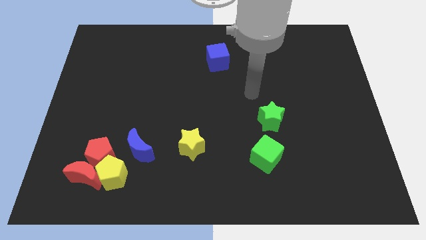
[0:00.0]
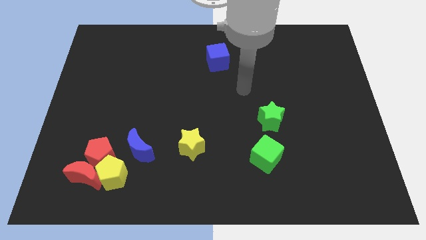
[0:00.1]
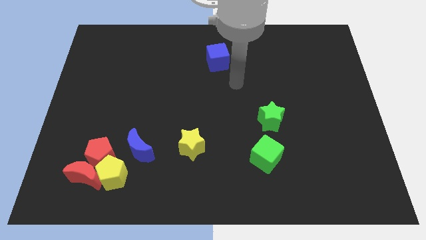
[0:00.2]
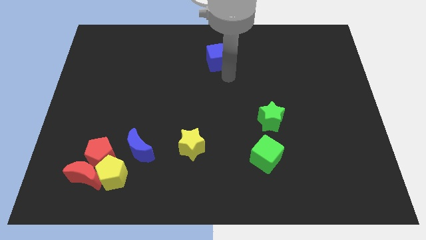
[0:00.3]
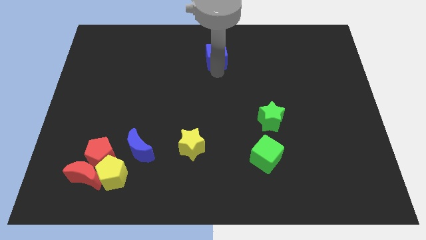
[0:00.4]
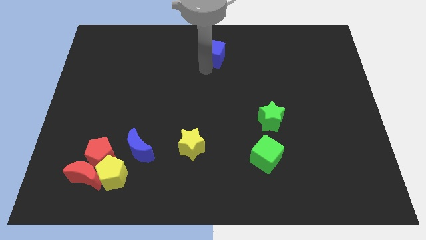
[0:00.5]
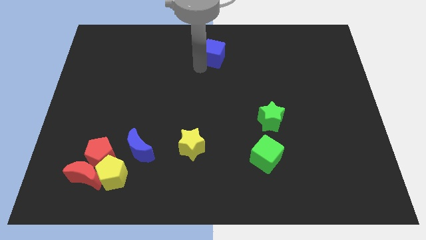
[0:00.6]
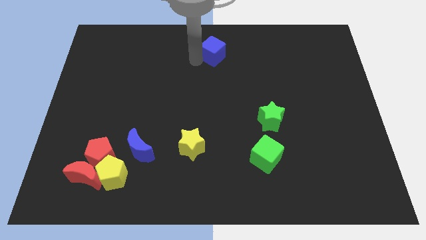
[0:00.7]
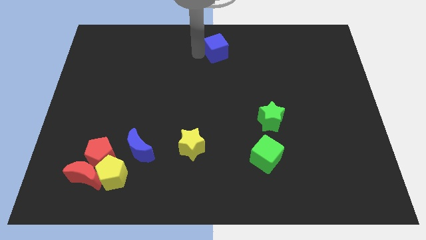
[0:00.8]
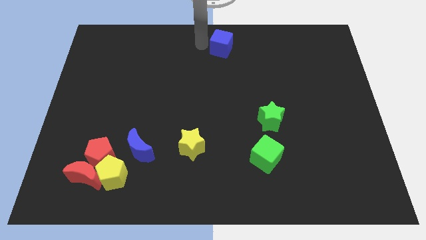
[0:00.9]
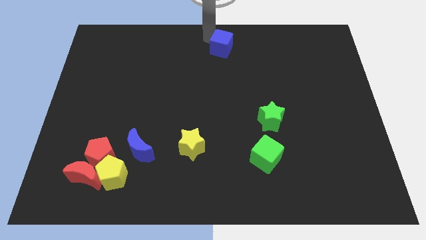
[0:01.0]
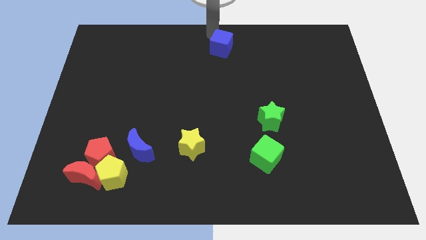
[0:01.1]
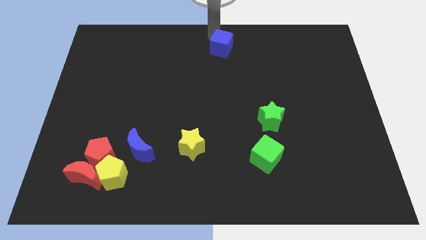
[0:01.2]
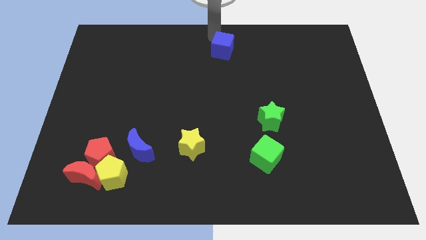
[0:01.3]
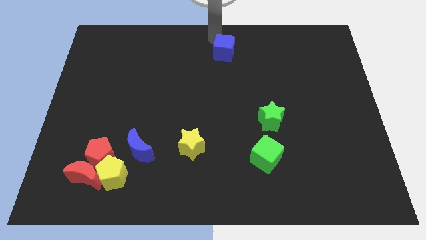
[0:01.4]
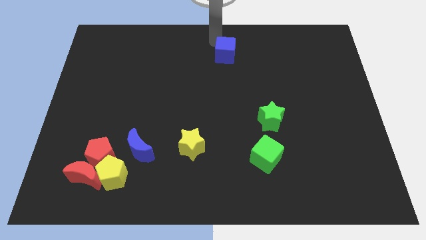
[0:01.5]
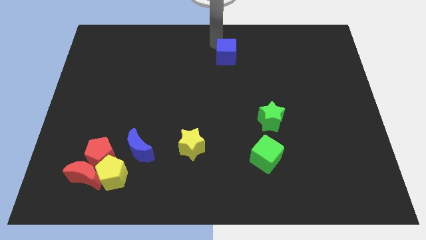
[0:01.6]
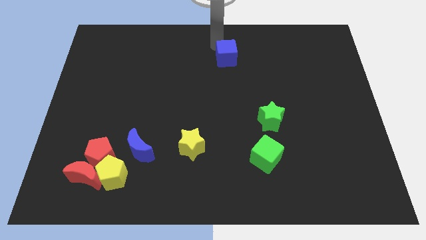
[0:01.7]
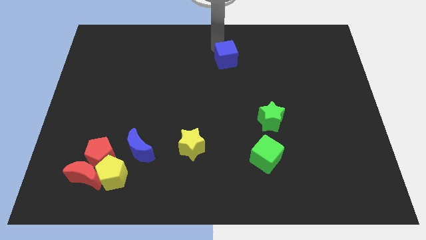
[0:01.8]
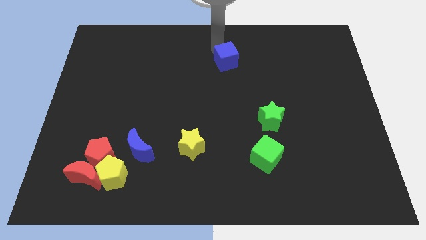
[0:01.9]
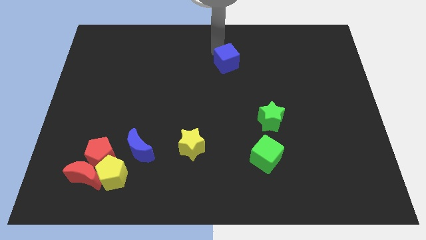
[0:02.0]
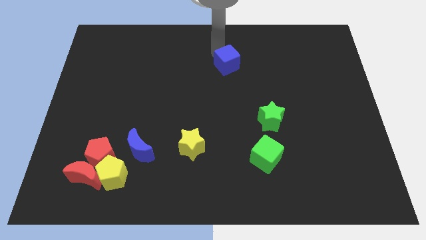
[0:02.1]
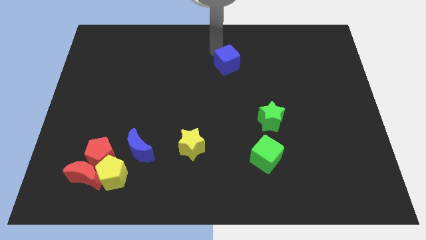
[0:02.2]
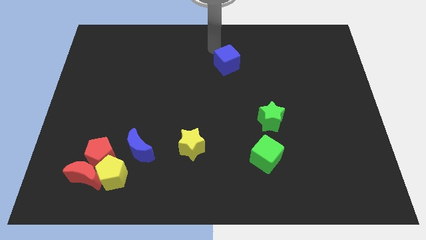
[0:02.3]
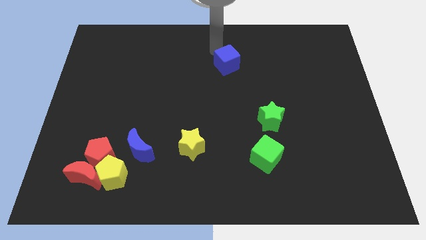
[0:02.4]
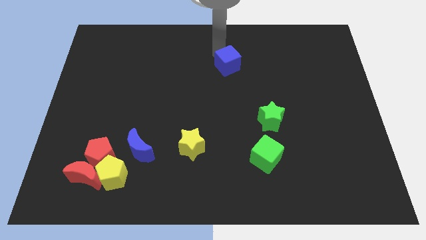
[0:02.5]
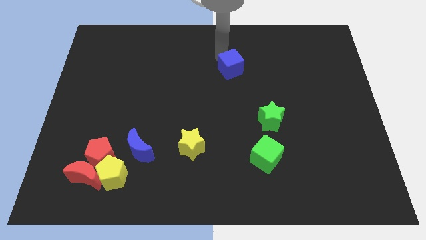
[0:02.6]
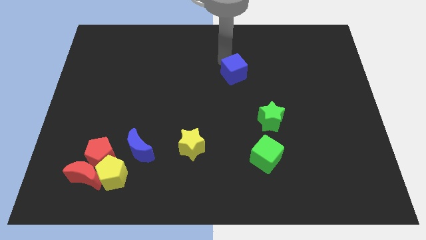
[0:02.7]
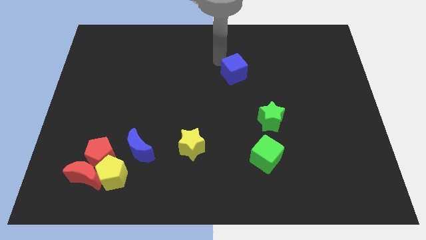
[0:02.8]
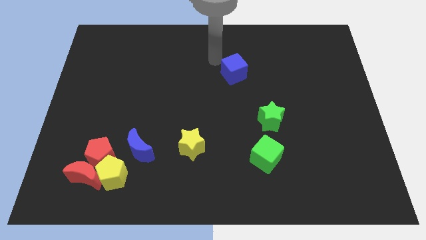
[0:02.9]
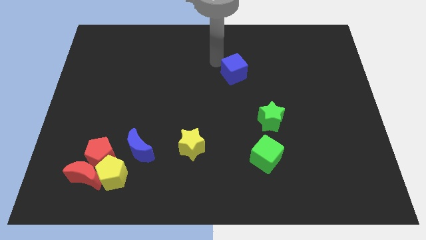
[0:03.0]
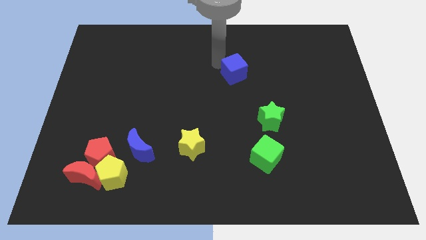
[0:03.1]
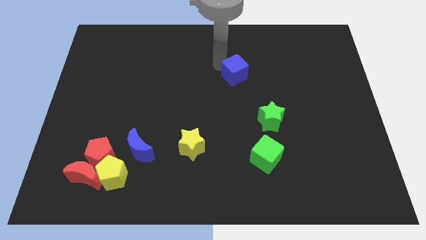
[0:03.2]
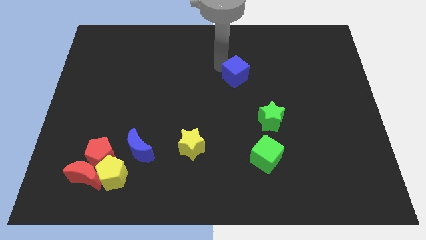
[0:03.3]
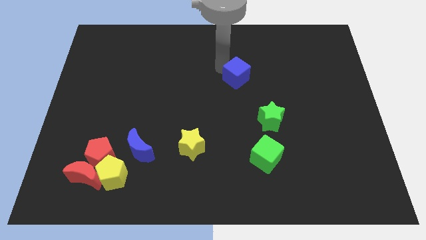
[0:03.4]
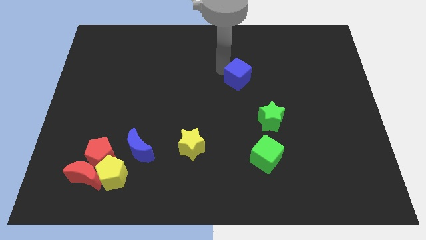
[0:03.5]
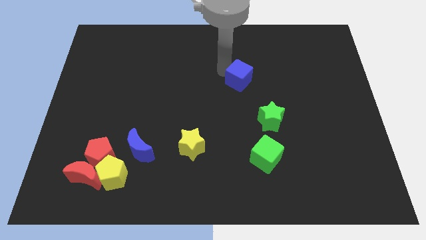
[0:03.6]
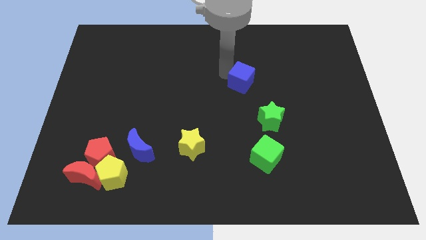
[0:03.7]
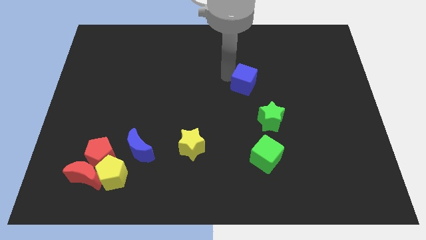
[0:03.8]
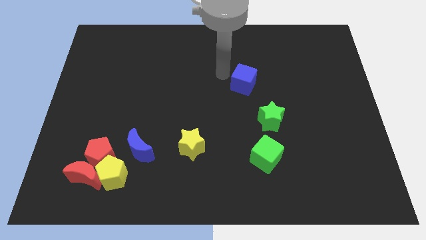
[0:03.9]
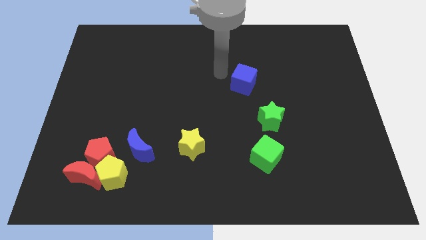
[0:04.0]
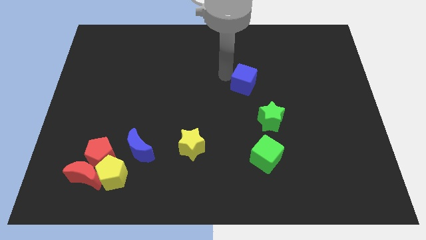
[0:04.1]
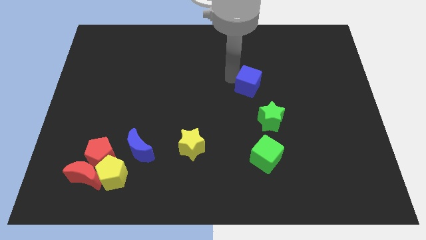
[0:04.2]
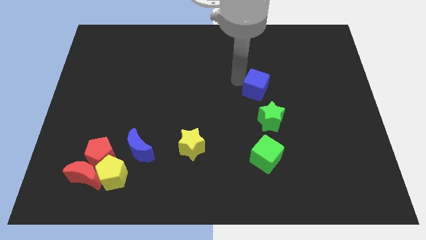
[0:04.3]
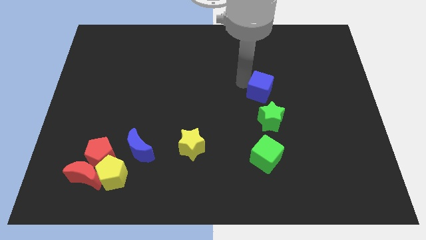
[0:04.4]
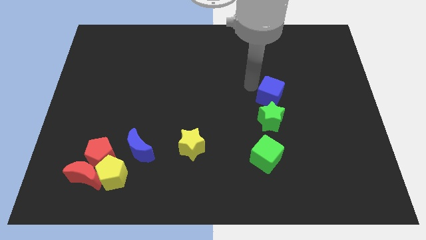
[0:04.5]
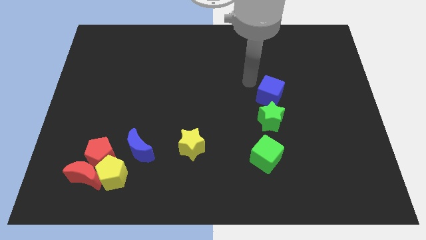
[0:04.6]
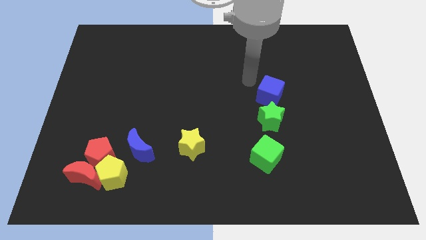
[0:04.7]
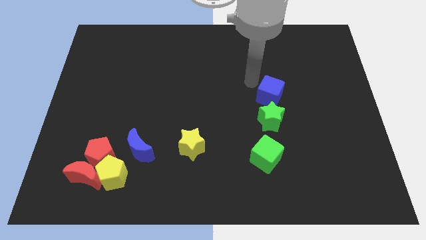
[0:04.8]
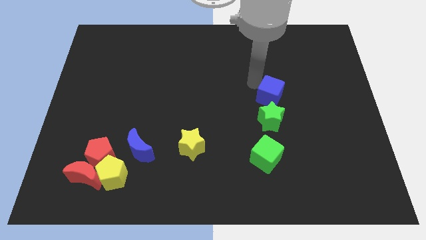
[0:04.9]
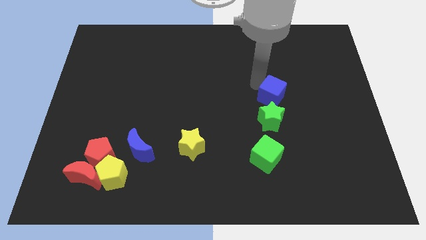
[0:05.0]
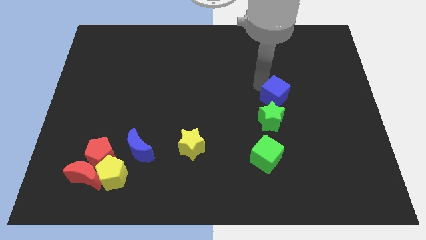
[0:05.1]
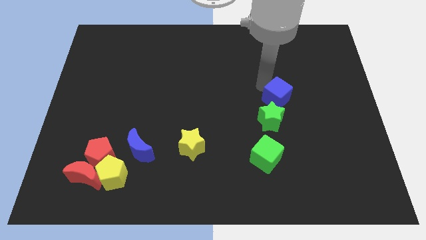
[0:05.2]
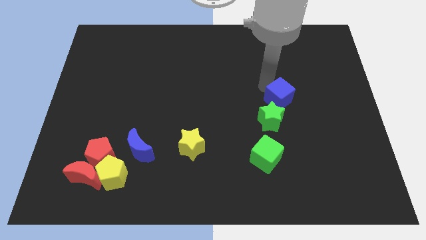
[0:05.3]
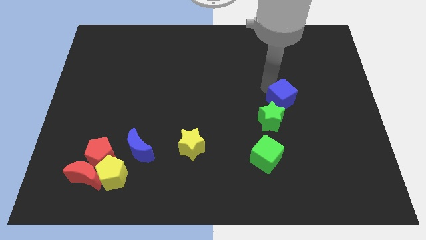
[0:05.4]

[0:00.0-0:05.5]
move the blue cube down and to the right

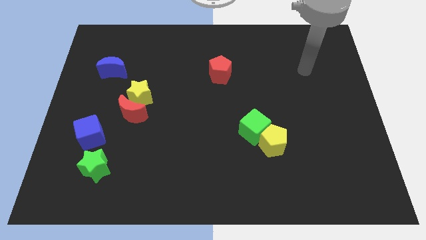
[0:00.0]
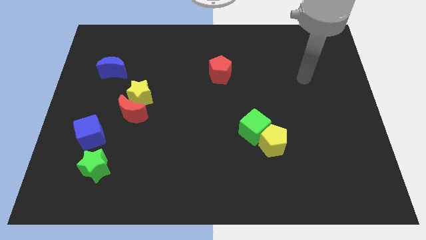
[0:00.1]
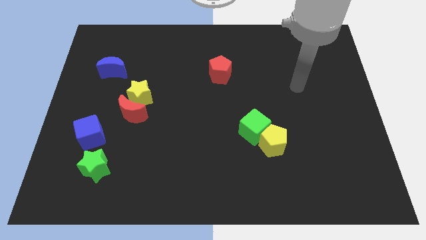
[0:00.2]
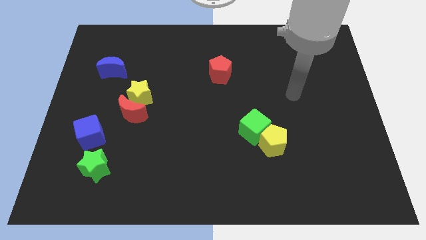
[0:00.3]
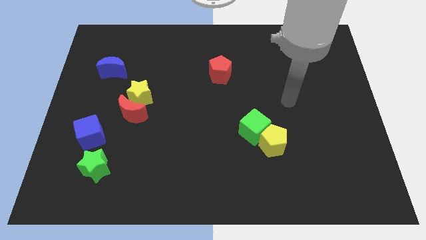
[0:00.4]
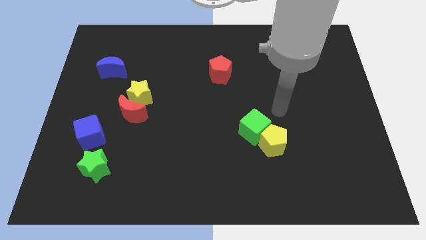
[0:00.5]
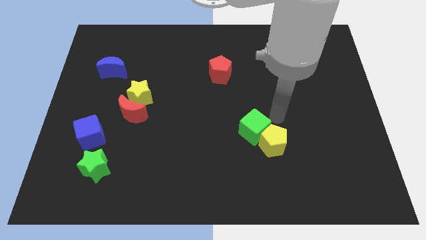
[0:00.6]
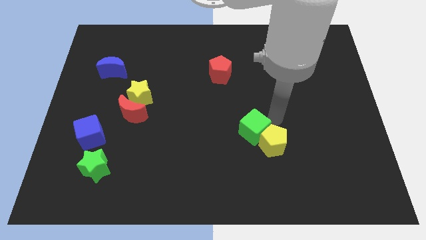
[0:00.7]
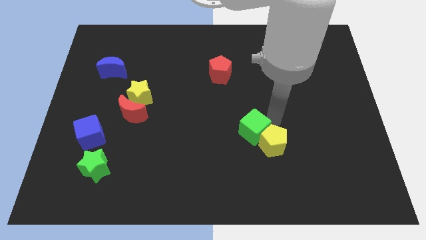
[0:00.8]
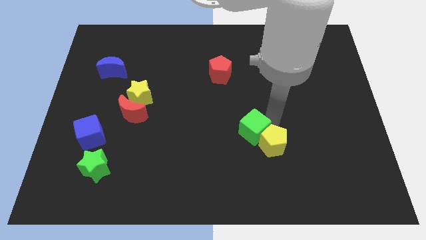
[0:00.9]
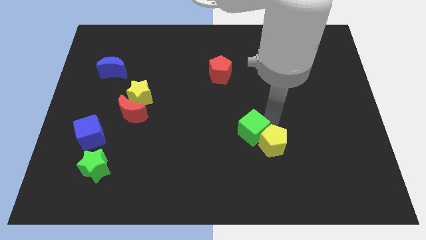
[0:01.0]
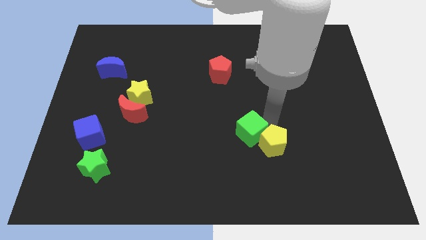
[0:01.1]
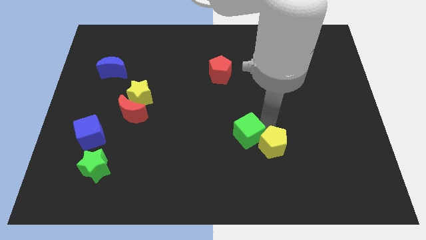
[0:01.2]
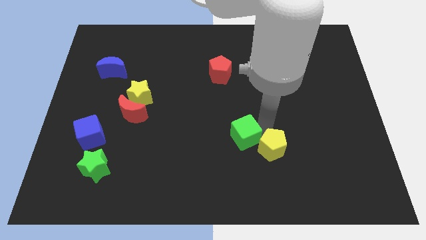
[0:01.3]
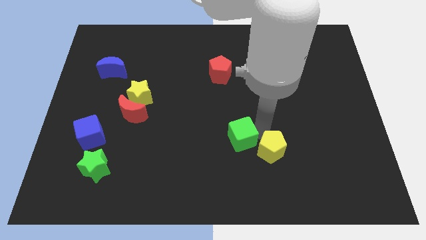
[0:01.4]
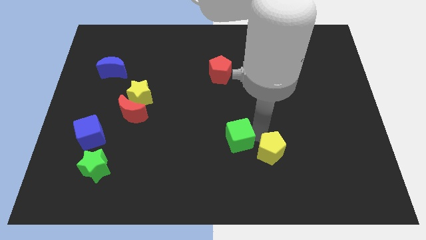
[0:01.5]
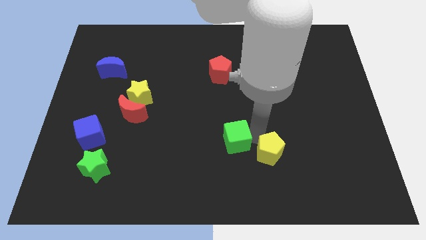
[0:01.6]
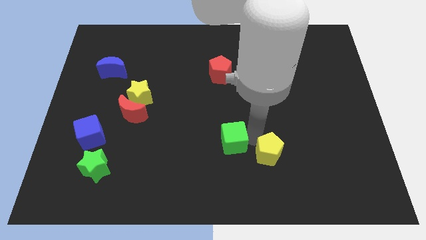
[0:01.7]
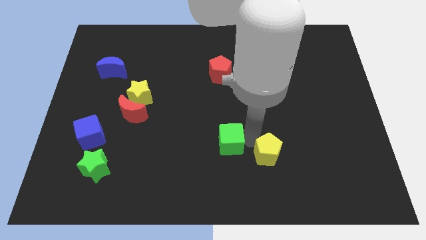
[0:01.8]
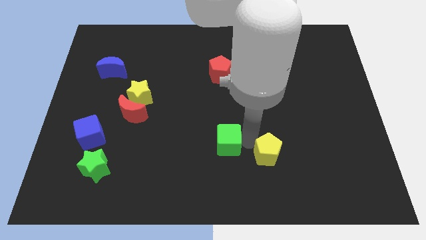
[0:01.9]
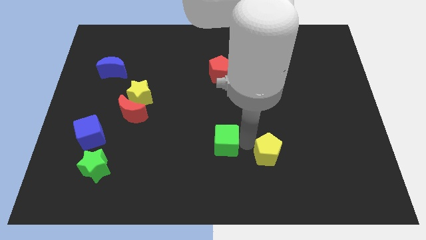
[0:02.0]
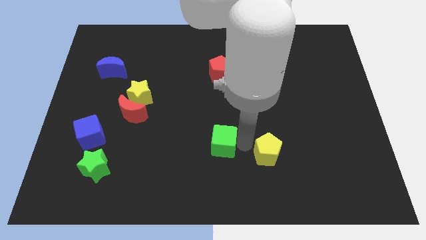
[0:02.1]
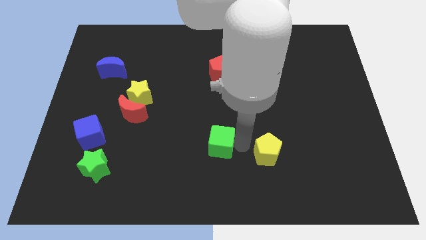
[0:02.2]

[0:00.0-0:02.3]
slide the green cube left a bit
